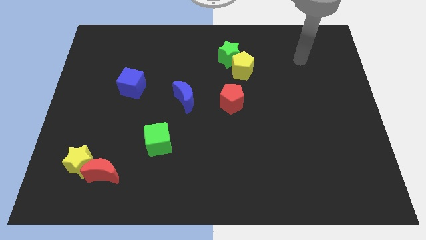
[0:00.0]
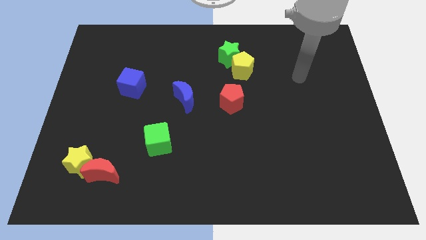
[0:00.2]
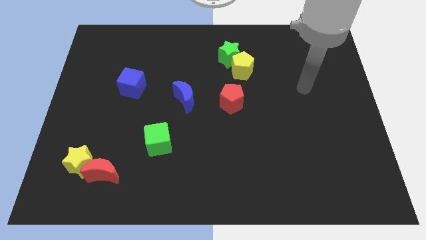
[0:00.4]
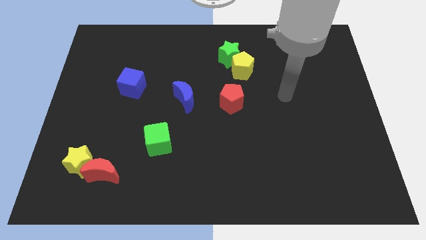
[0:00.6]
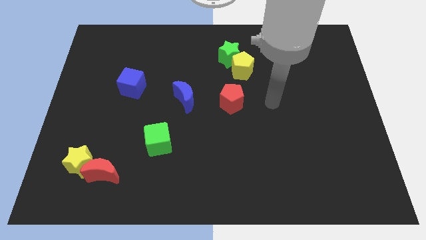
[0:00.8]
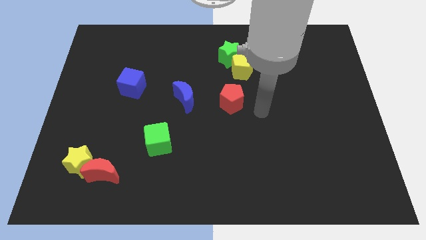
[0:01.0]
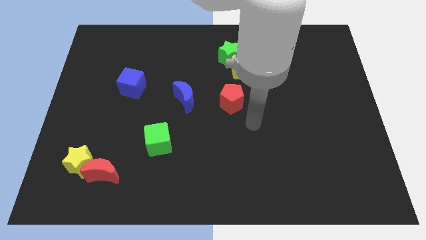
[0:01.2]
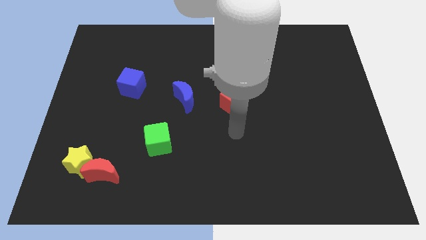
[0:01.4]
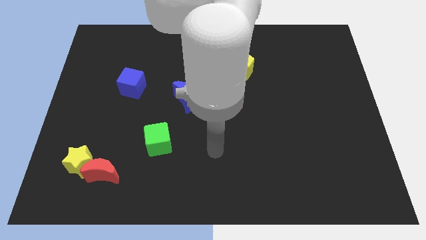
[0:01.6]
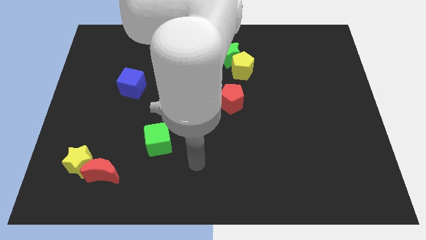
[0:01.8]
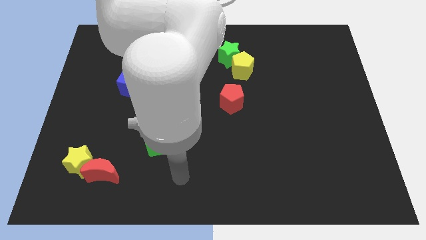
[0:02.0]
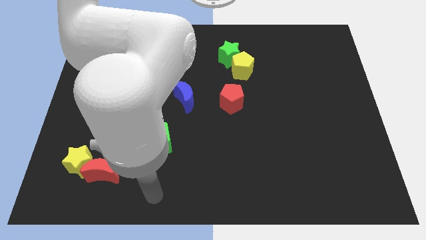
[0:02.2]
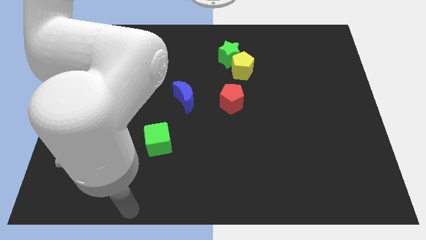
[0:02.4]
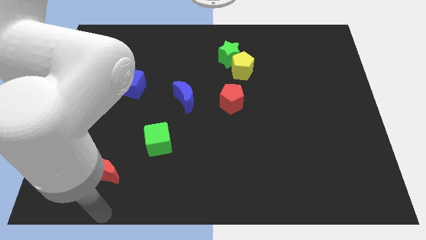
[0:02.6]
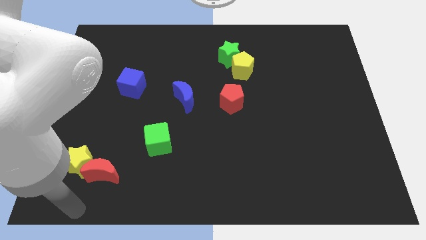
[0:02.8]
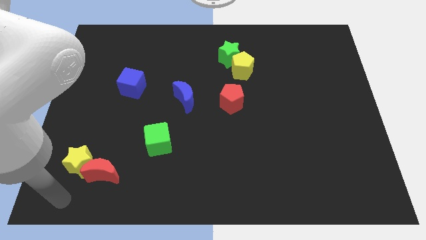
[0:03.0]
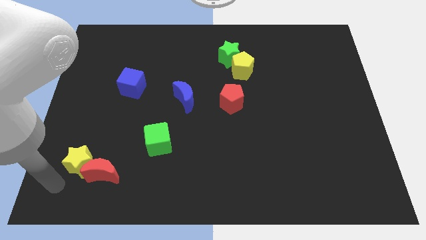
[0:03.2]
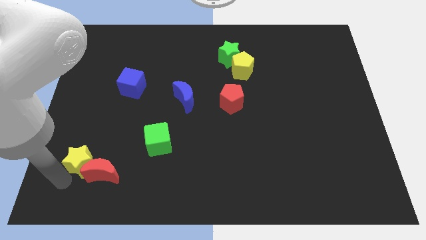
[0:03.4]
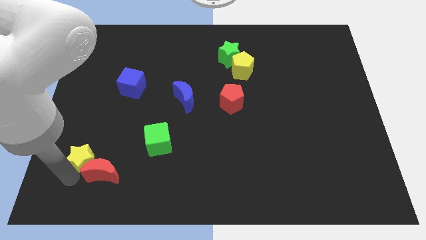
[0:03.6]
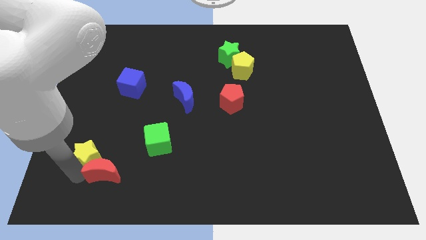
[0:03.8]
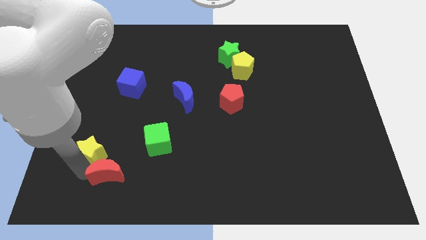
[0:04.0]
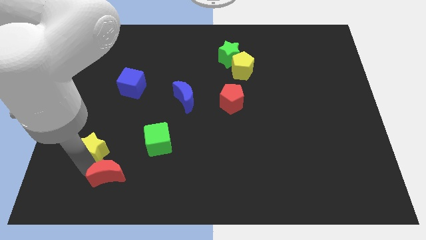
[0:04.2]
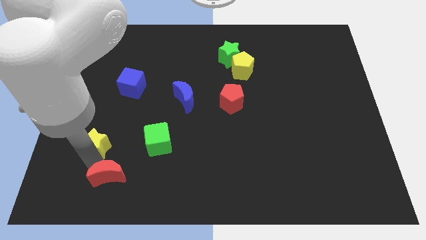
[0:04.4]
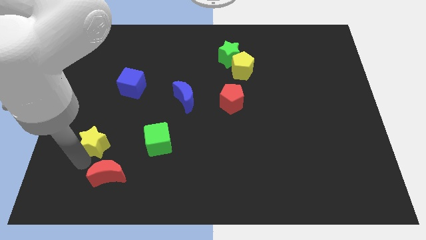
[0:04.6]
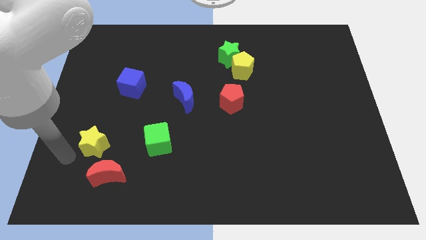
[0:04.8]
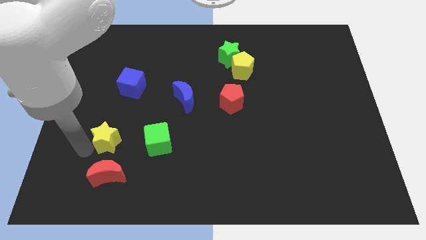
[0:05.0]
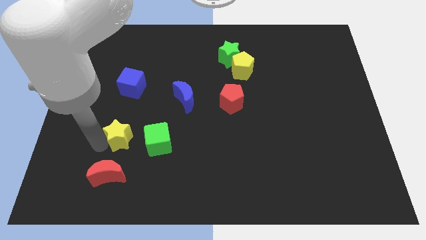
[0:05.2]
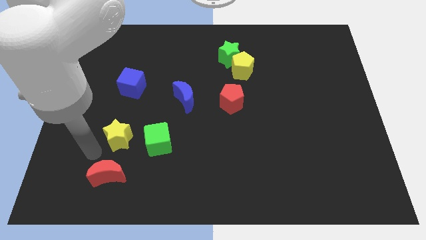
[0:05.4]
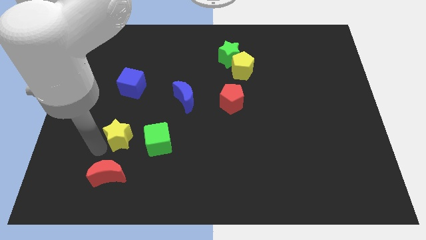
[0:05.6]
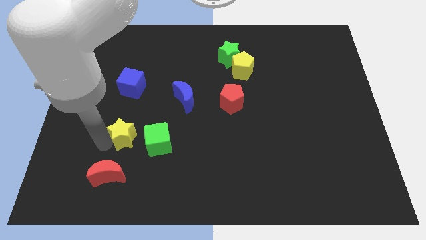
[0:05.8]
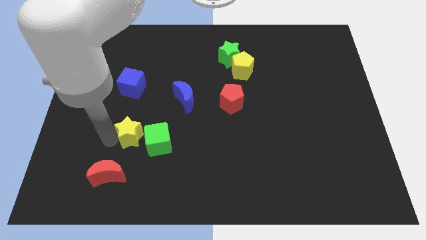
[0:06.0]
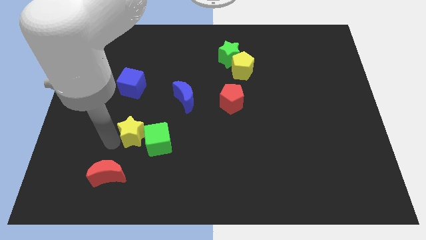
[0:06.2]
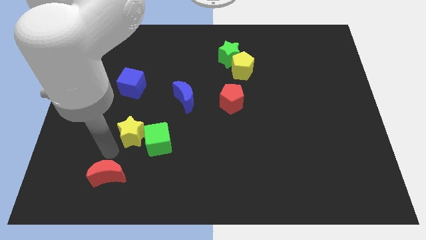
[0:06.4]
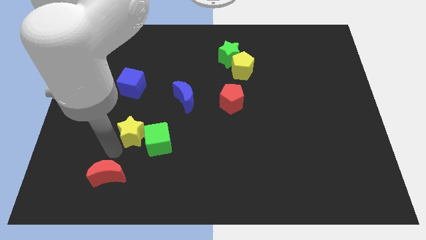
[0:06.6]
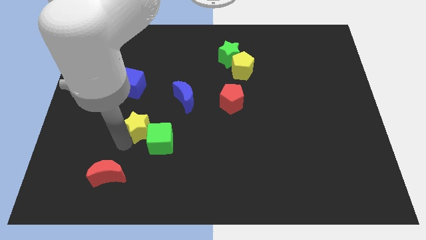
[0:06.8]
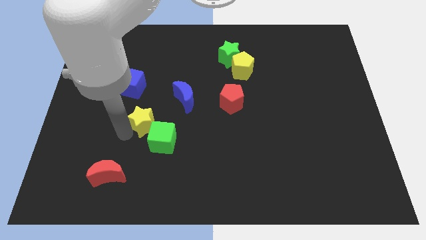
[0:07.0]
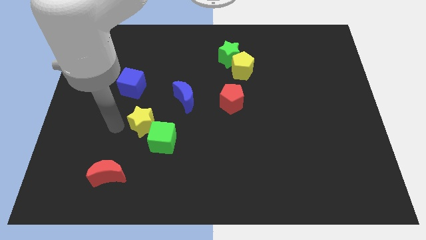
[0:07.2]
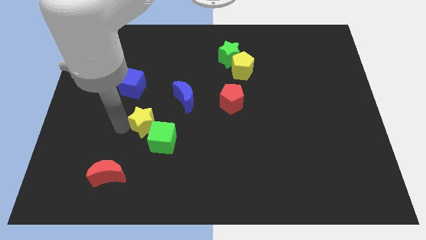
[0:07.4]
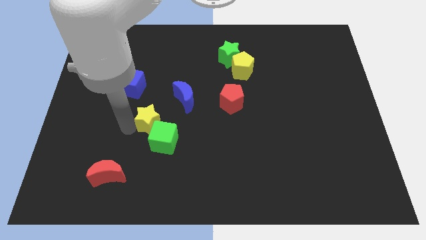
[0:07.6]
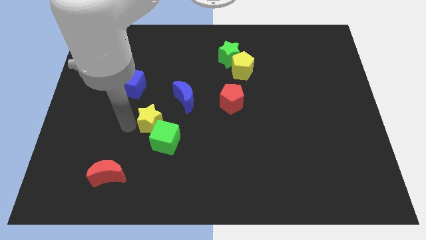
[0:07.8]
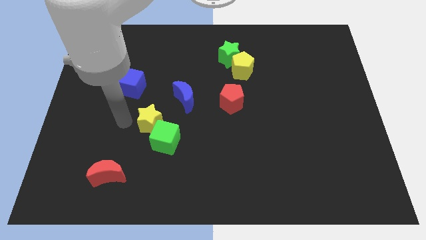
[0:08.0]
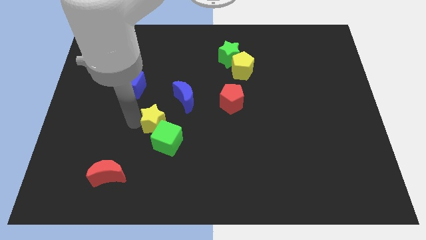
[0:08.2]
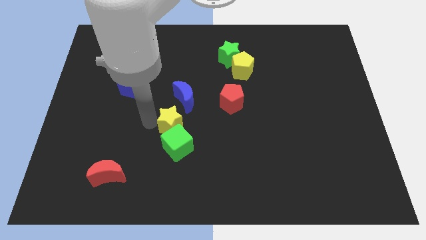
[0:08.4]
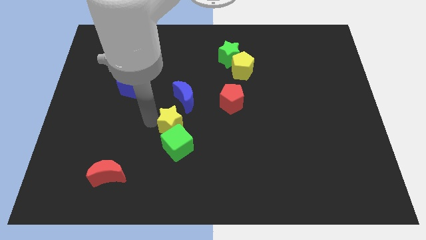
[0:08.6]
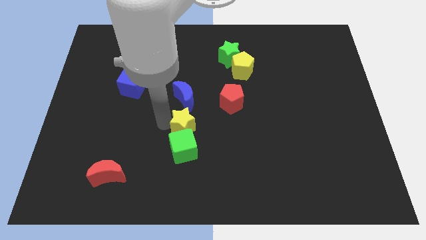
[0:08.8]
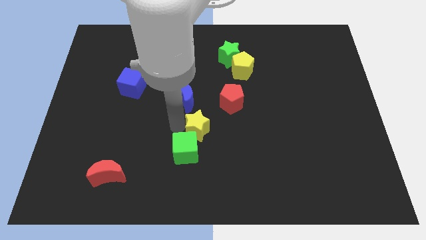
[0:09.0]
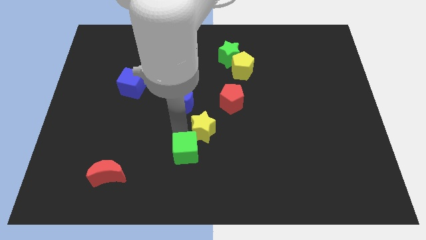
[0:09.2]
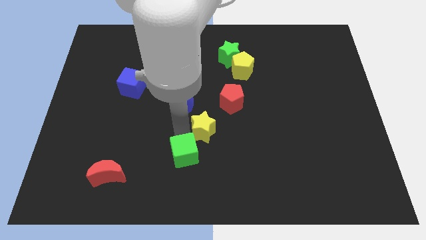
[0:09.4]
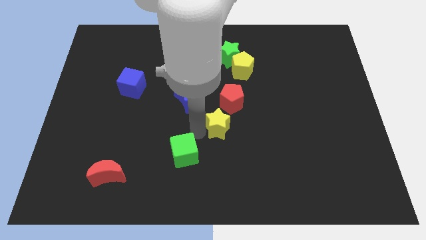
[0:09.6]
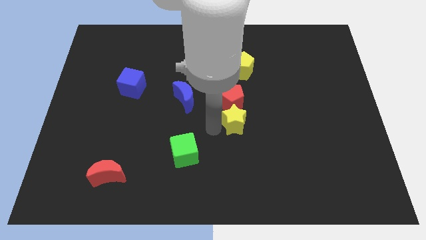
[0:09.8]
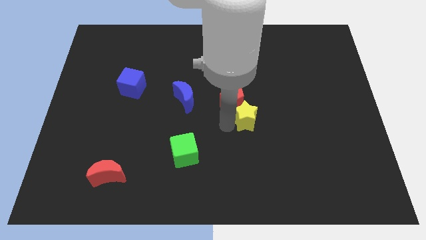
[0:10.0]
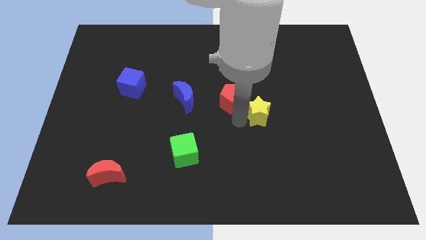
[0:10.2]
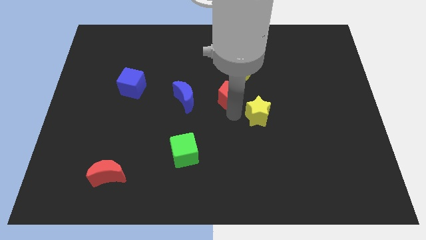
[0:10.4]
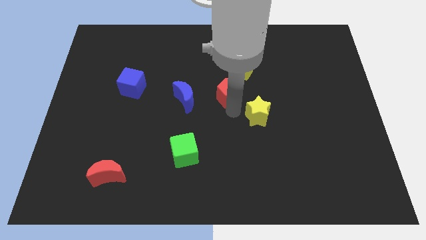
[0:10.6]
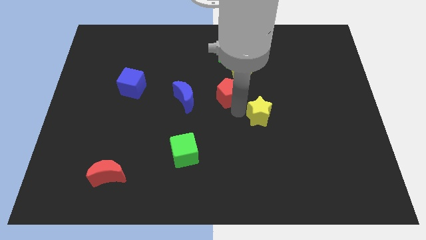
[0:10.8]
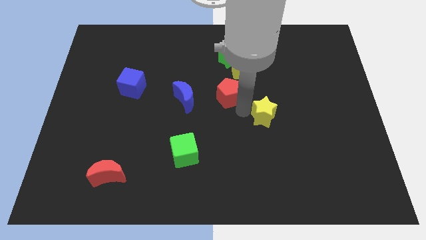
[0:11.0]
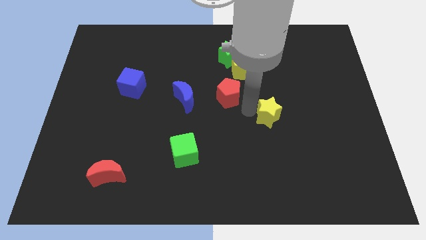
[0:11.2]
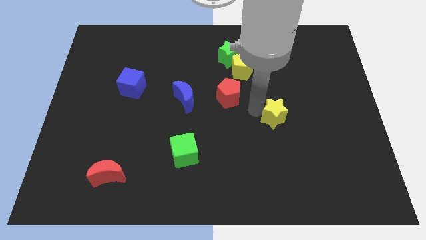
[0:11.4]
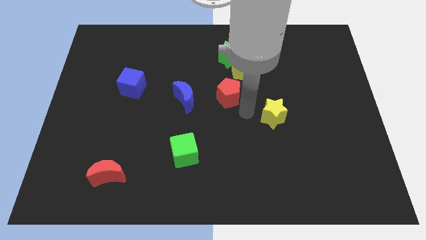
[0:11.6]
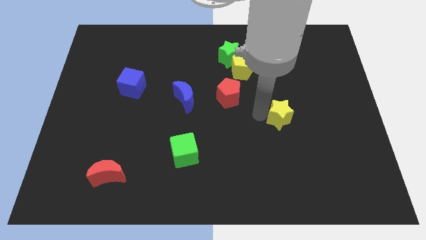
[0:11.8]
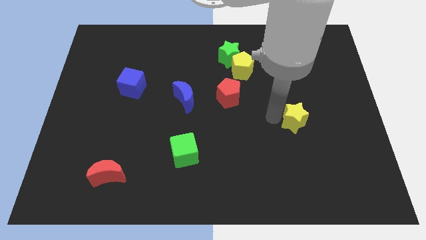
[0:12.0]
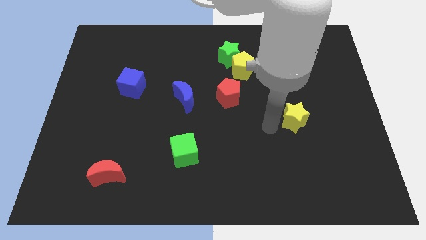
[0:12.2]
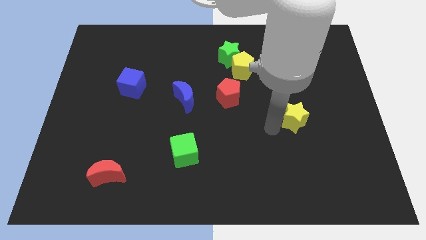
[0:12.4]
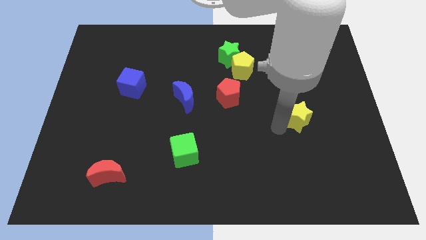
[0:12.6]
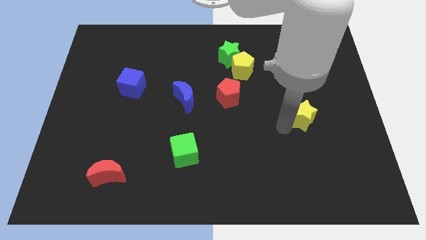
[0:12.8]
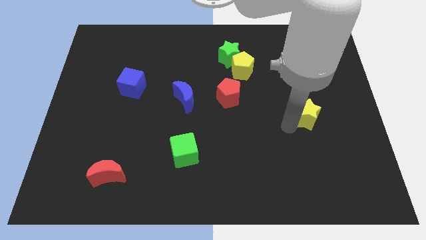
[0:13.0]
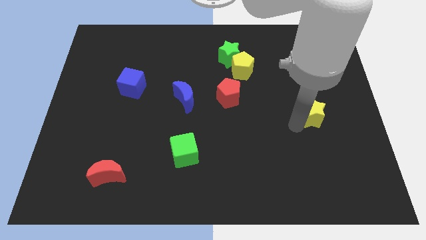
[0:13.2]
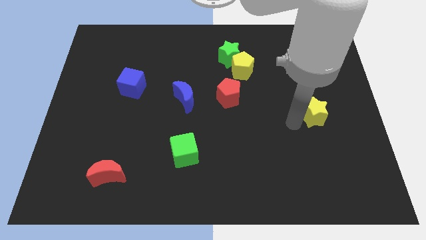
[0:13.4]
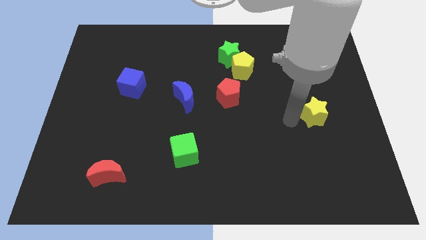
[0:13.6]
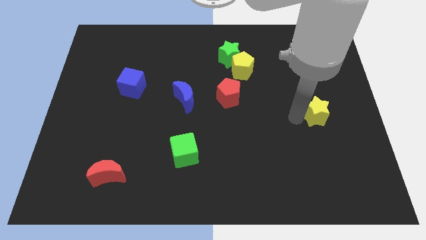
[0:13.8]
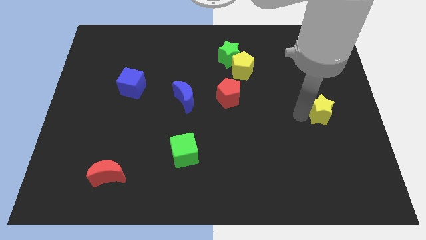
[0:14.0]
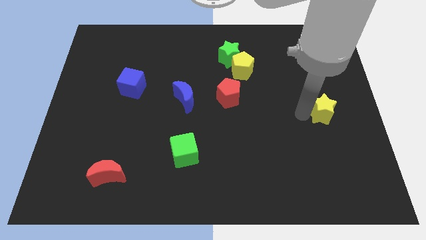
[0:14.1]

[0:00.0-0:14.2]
push the yellow star to the center right
